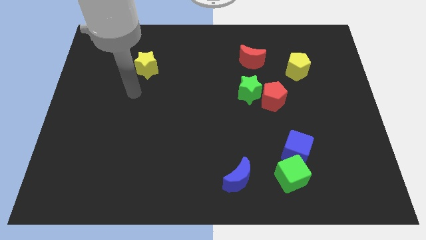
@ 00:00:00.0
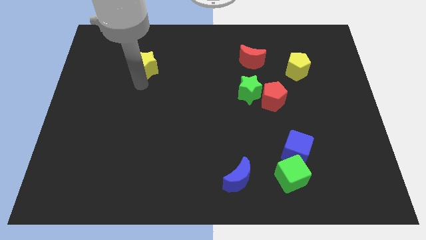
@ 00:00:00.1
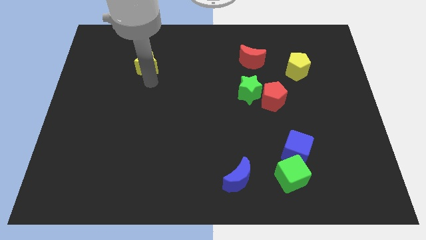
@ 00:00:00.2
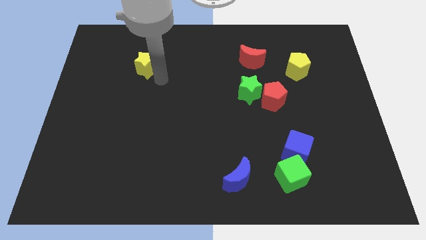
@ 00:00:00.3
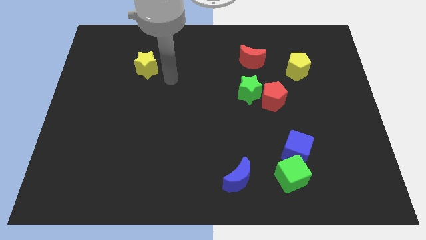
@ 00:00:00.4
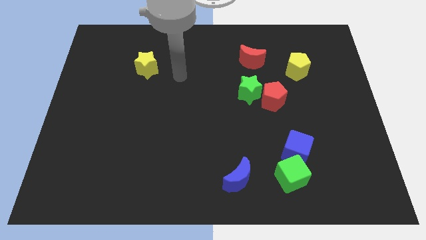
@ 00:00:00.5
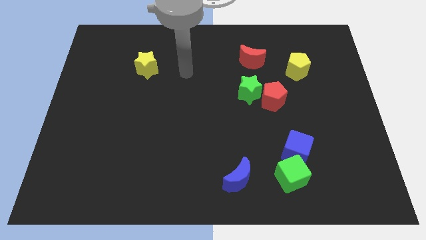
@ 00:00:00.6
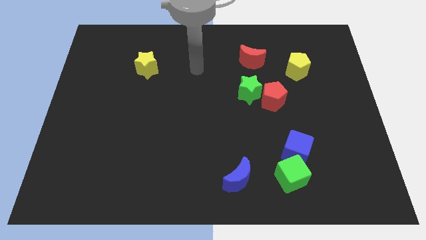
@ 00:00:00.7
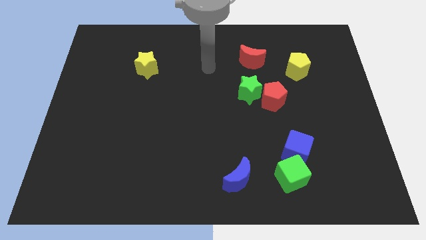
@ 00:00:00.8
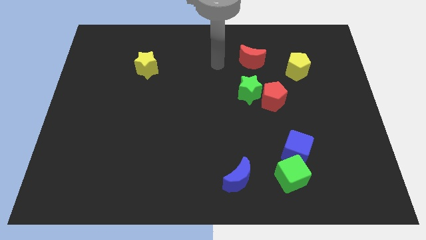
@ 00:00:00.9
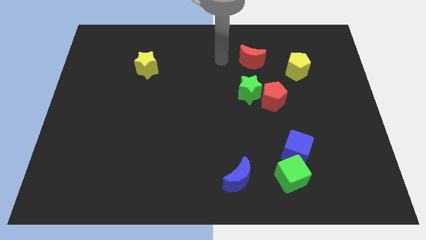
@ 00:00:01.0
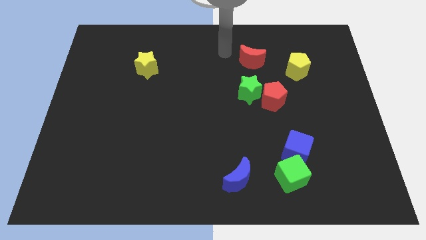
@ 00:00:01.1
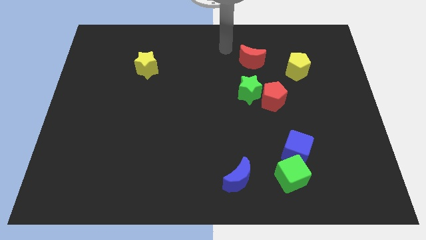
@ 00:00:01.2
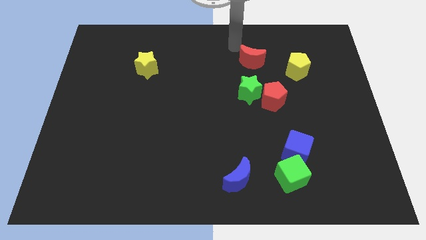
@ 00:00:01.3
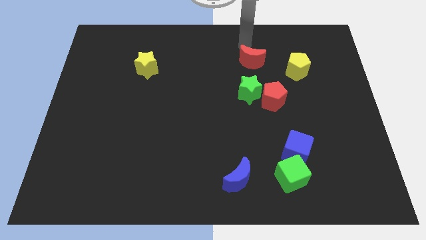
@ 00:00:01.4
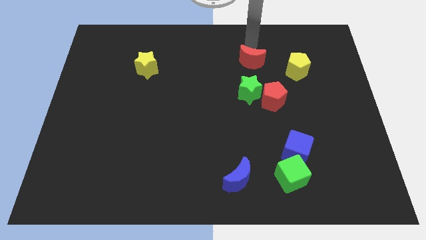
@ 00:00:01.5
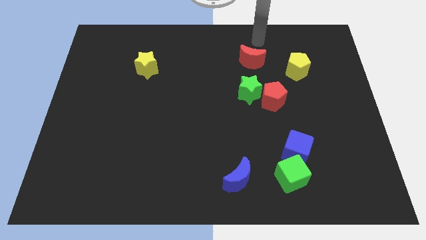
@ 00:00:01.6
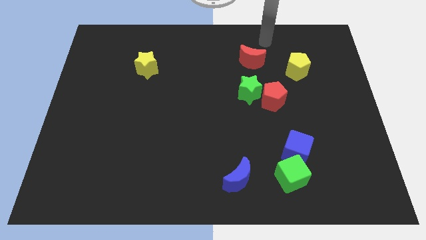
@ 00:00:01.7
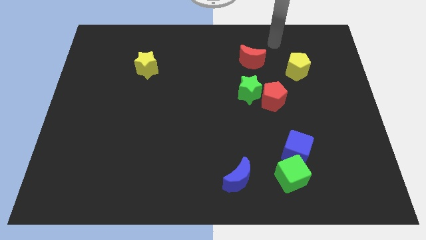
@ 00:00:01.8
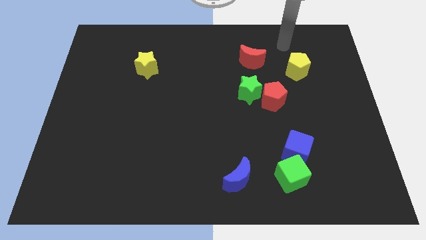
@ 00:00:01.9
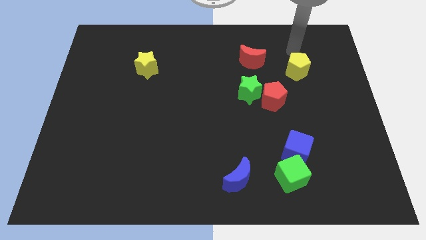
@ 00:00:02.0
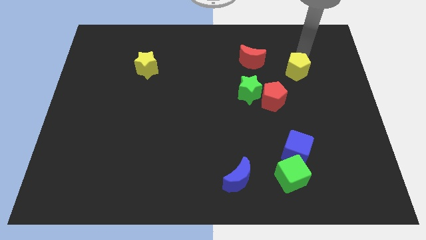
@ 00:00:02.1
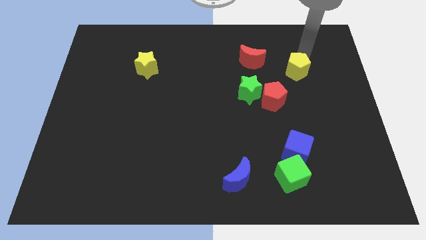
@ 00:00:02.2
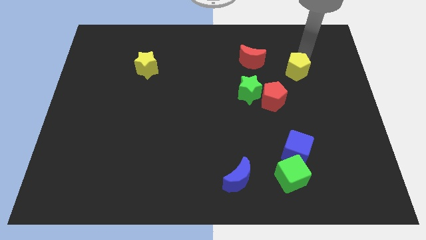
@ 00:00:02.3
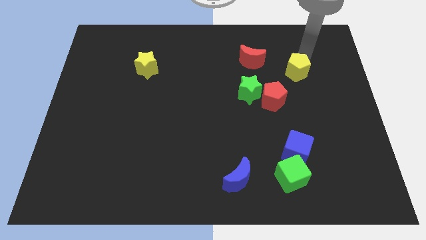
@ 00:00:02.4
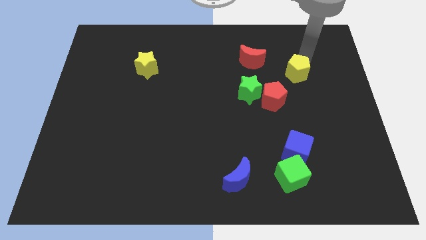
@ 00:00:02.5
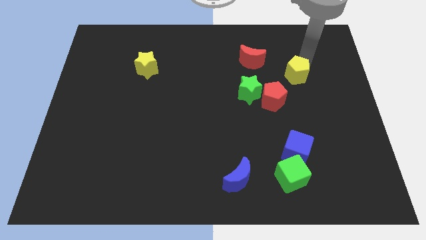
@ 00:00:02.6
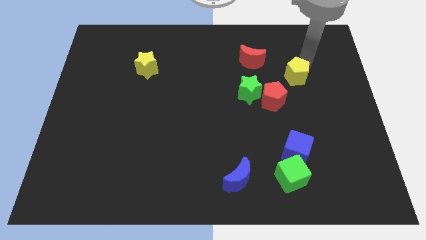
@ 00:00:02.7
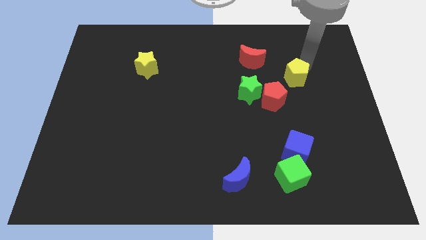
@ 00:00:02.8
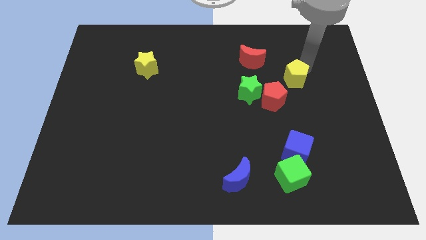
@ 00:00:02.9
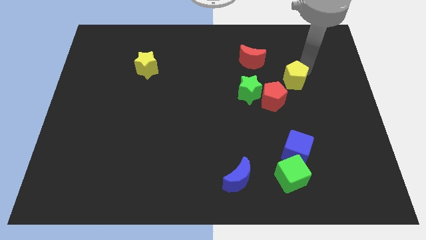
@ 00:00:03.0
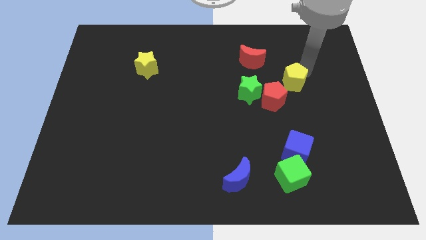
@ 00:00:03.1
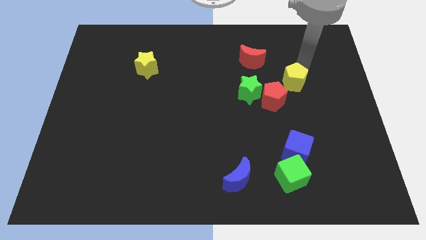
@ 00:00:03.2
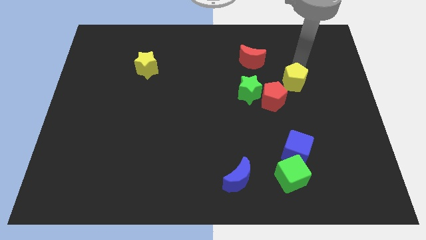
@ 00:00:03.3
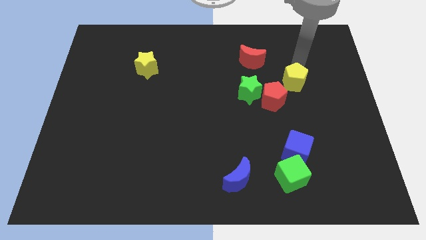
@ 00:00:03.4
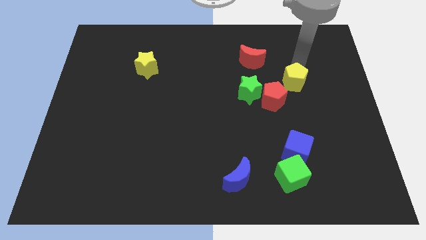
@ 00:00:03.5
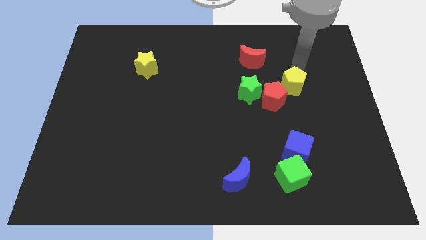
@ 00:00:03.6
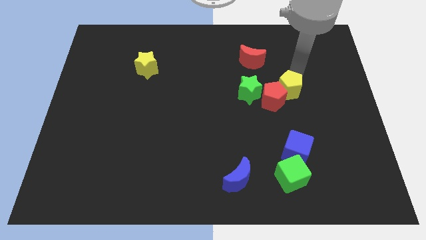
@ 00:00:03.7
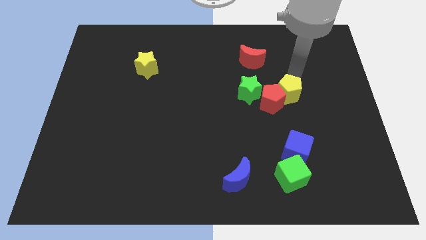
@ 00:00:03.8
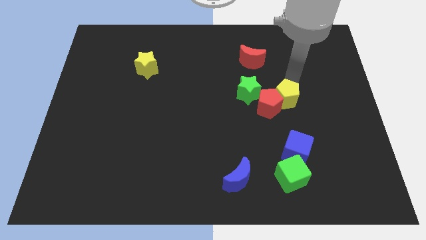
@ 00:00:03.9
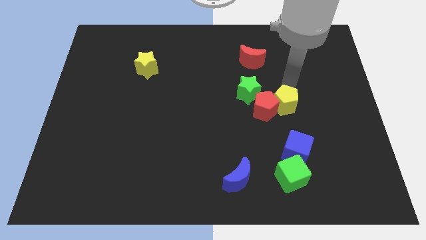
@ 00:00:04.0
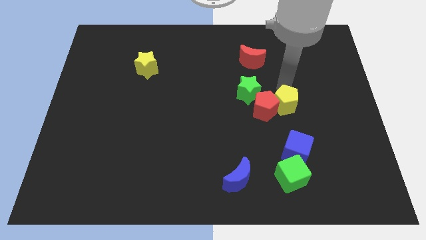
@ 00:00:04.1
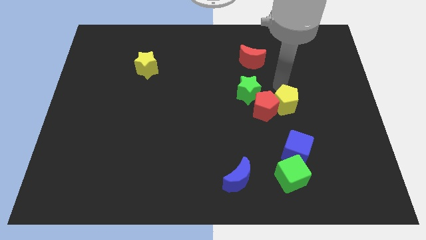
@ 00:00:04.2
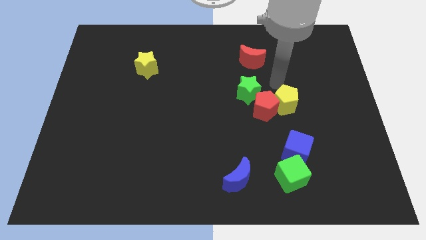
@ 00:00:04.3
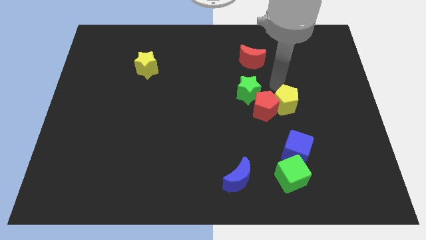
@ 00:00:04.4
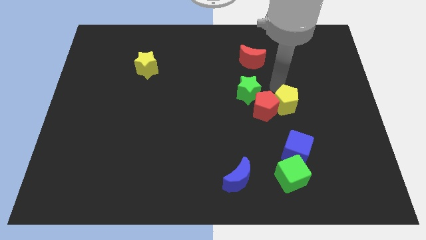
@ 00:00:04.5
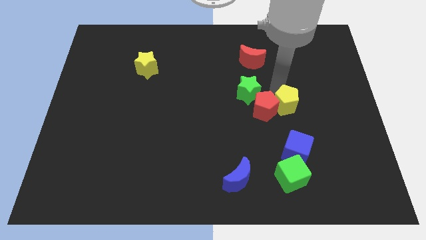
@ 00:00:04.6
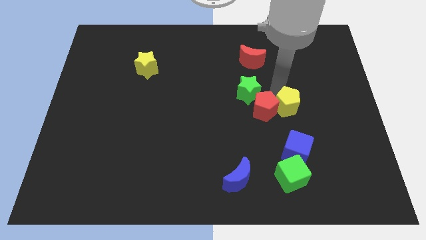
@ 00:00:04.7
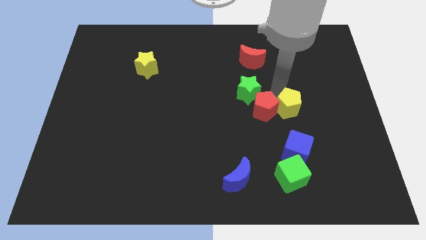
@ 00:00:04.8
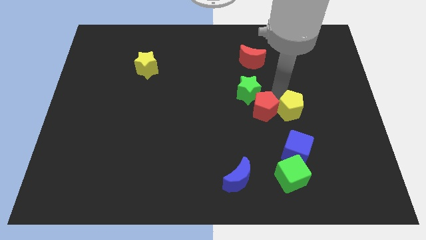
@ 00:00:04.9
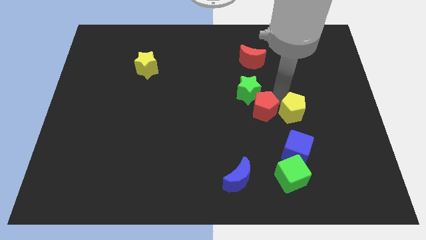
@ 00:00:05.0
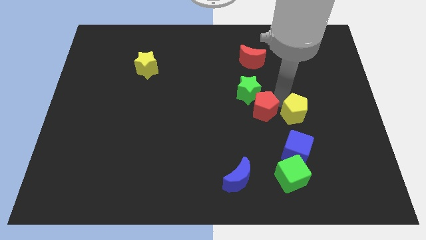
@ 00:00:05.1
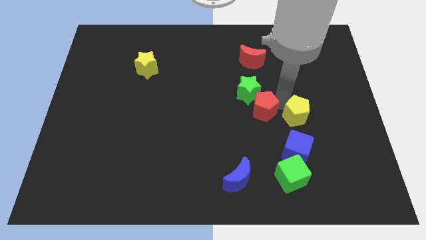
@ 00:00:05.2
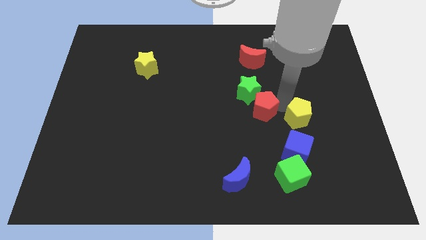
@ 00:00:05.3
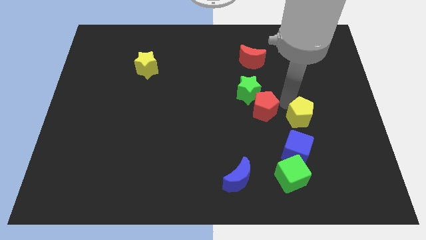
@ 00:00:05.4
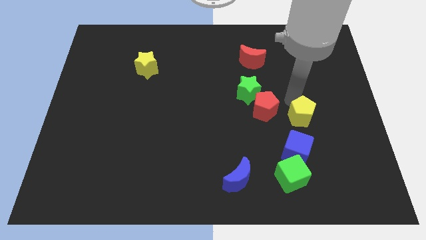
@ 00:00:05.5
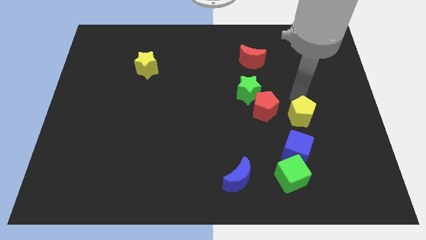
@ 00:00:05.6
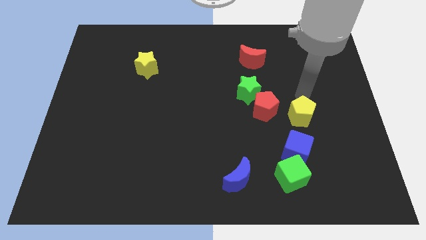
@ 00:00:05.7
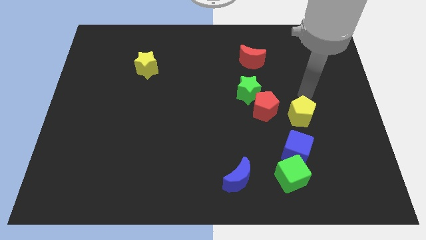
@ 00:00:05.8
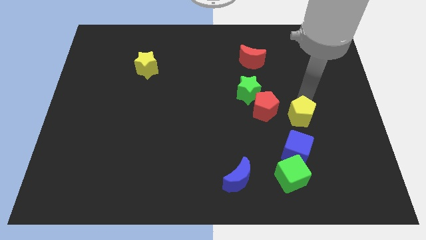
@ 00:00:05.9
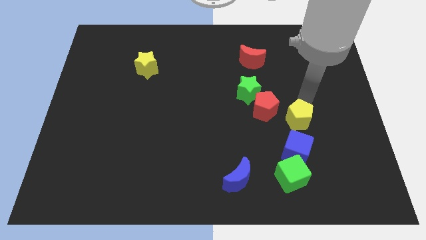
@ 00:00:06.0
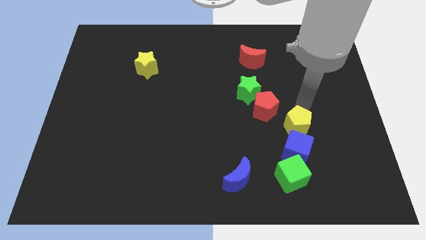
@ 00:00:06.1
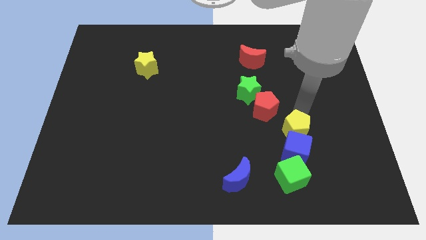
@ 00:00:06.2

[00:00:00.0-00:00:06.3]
put the yellow pentagon next to the blue cube

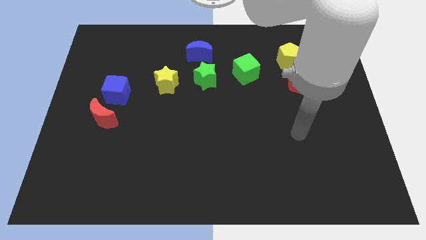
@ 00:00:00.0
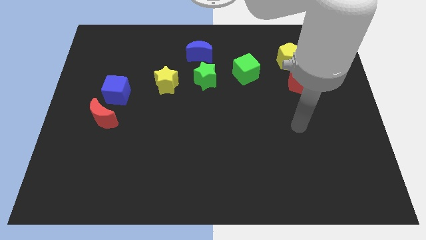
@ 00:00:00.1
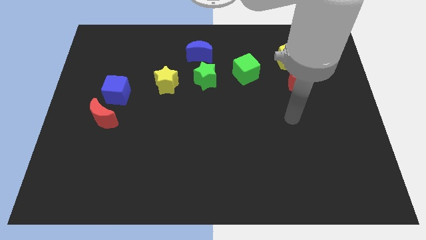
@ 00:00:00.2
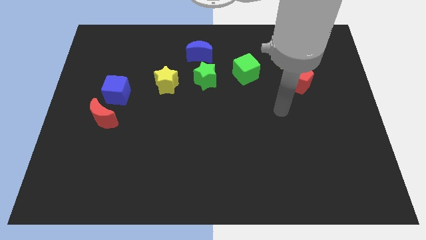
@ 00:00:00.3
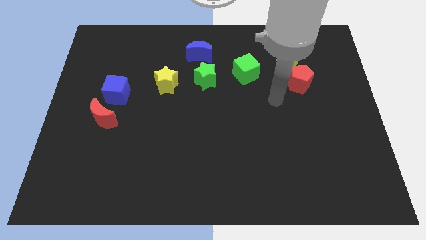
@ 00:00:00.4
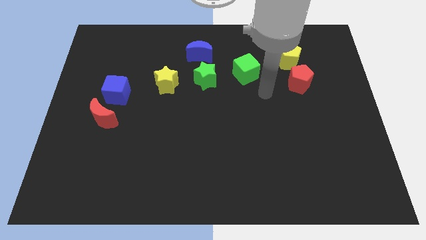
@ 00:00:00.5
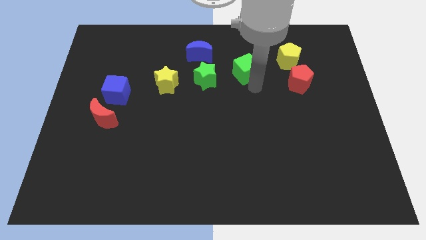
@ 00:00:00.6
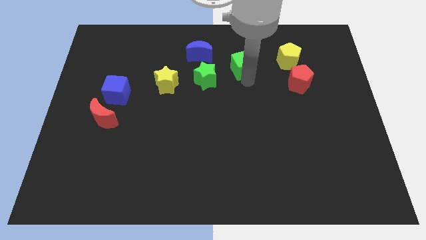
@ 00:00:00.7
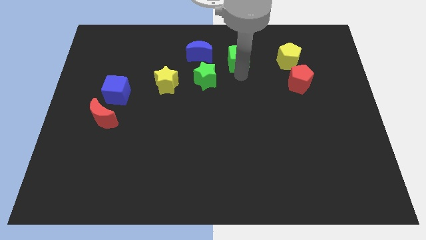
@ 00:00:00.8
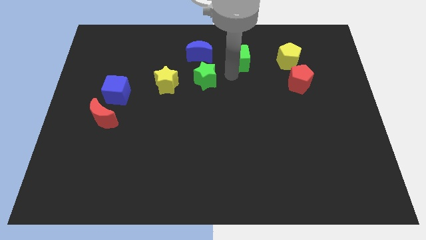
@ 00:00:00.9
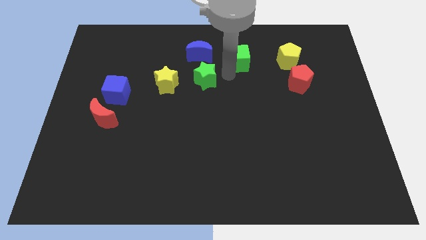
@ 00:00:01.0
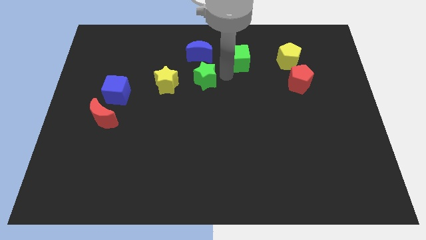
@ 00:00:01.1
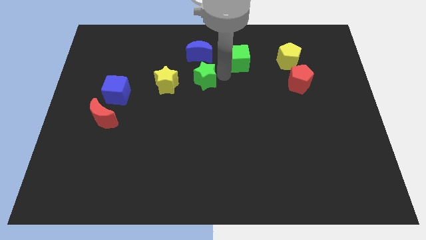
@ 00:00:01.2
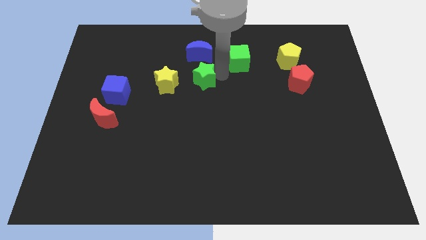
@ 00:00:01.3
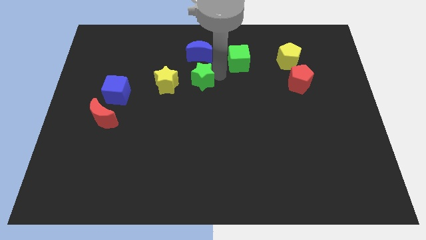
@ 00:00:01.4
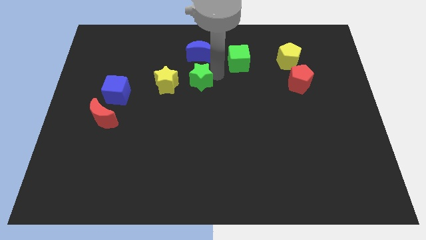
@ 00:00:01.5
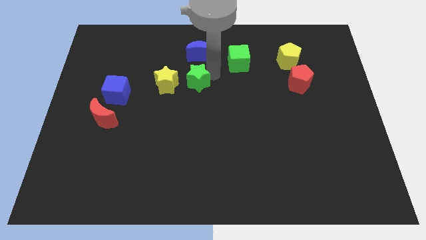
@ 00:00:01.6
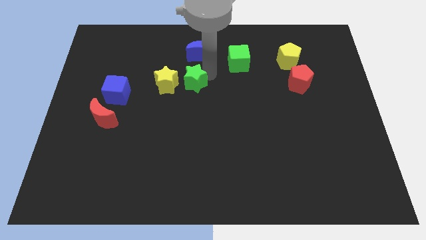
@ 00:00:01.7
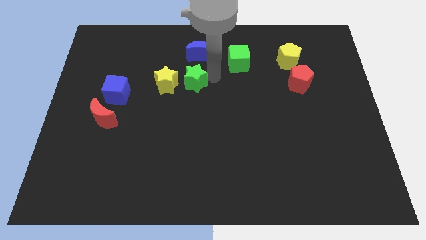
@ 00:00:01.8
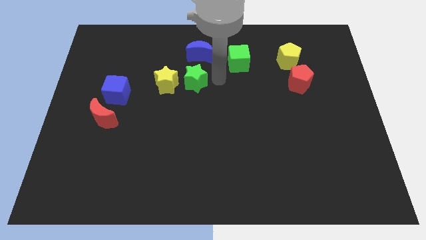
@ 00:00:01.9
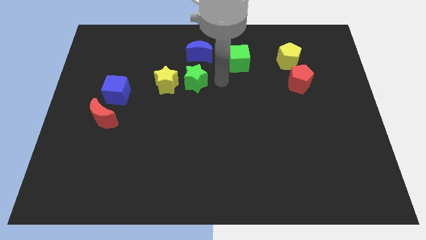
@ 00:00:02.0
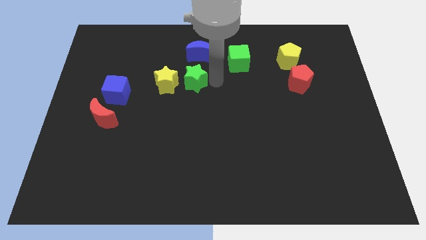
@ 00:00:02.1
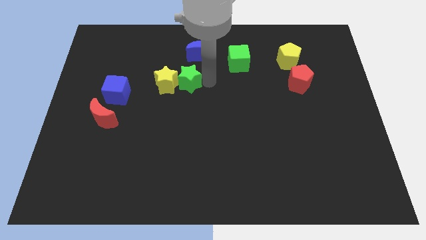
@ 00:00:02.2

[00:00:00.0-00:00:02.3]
slide the green star towards the yellow star
